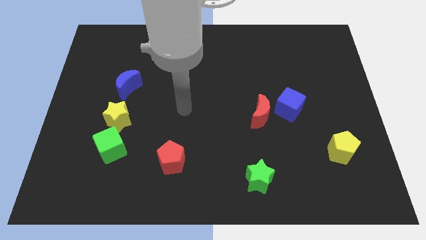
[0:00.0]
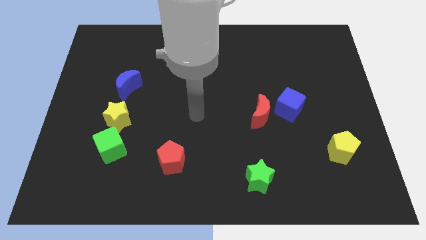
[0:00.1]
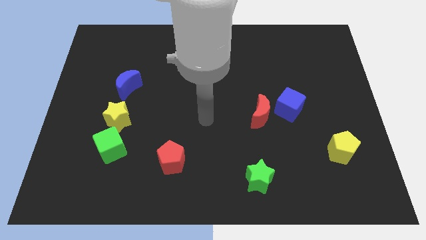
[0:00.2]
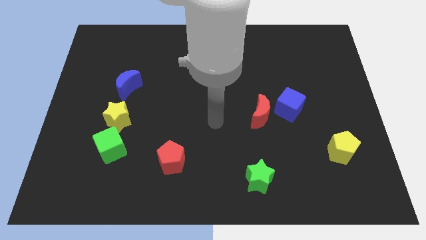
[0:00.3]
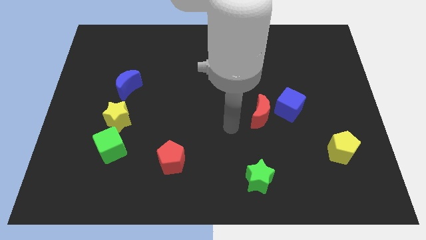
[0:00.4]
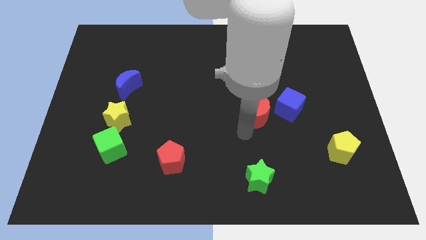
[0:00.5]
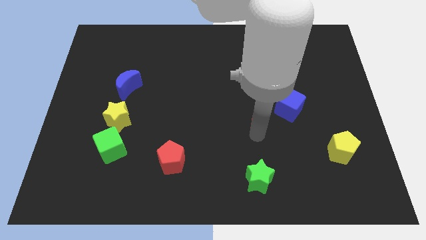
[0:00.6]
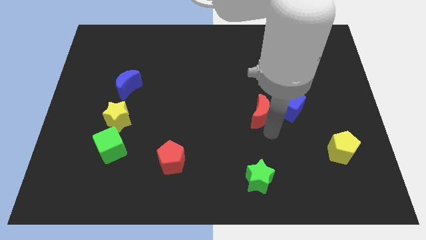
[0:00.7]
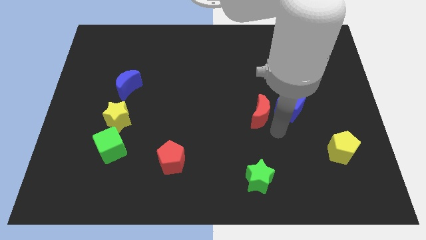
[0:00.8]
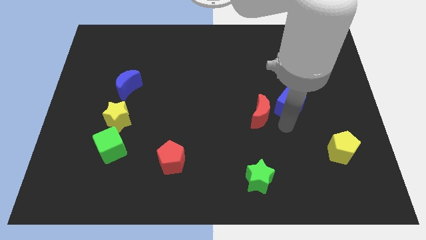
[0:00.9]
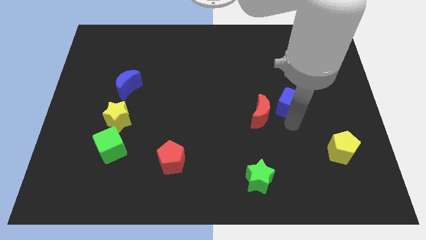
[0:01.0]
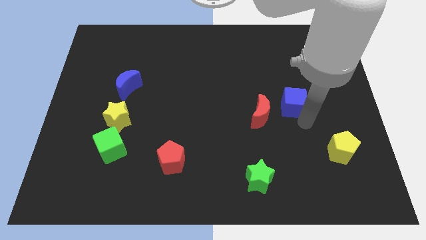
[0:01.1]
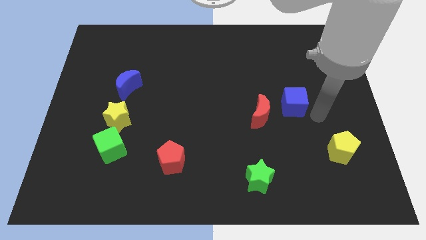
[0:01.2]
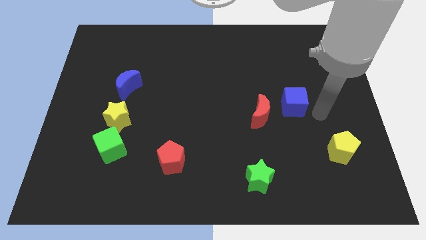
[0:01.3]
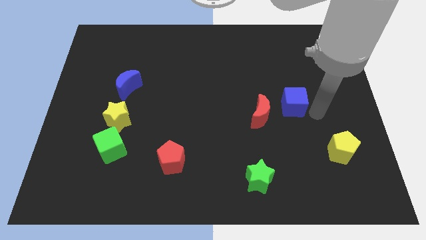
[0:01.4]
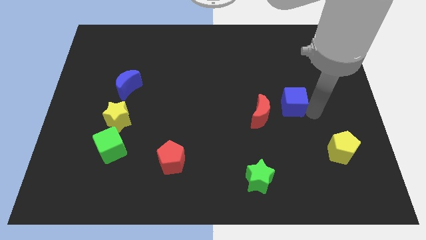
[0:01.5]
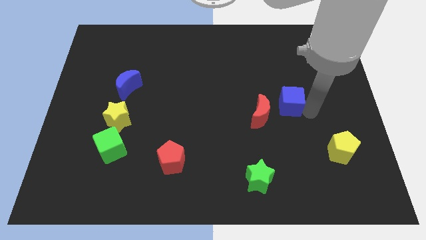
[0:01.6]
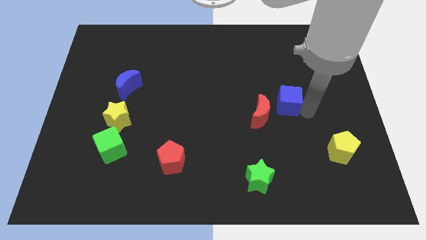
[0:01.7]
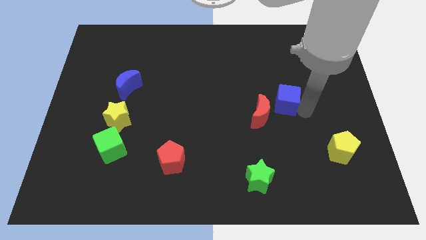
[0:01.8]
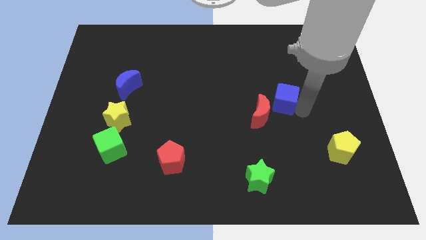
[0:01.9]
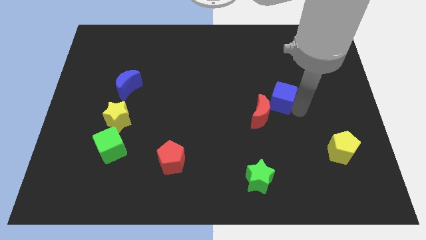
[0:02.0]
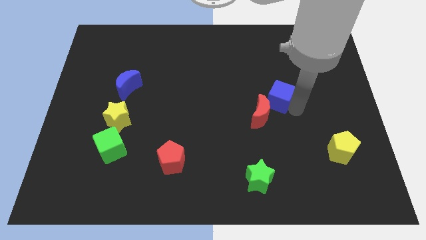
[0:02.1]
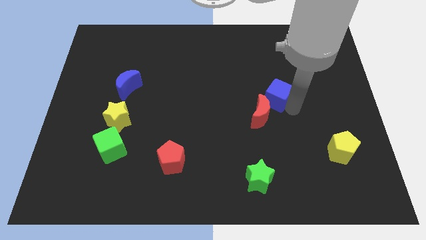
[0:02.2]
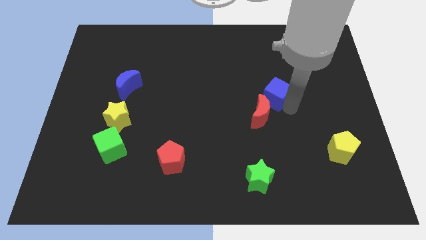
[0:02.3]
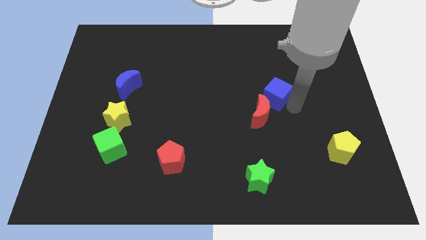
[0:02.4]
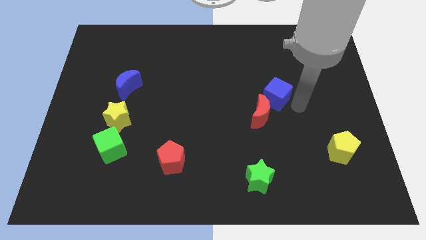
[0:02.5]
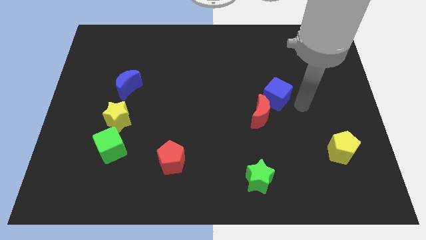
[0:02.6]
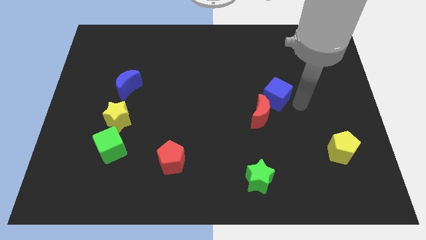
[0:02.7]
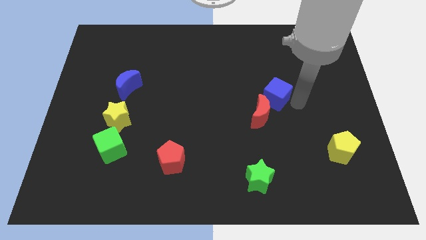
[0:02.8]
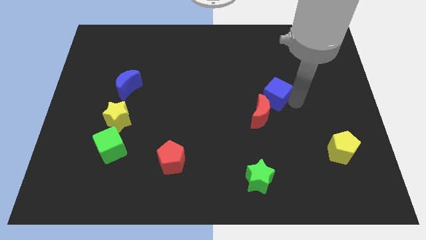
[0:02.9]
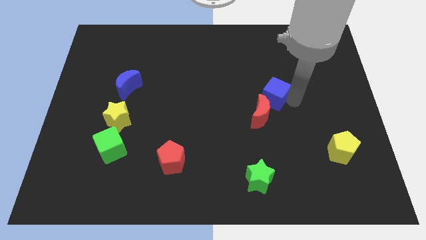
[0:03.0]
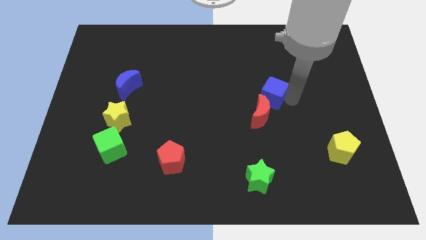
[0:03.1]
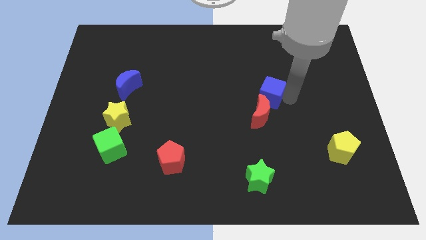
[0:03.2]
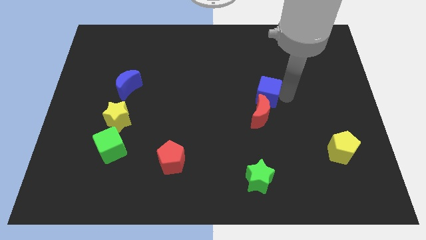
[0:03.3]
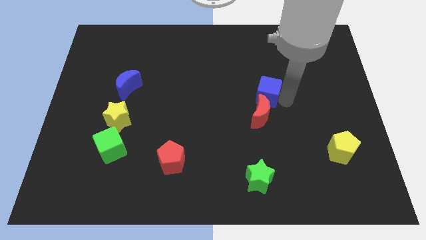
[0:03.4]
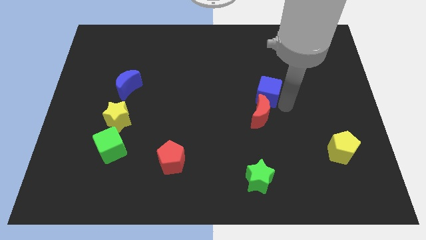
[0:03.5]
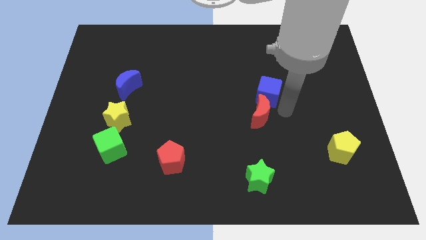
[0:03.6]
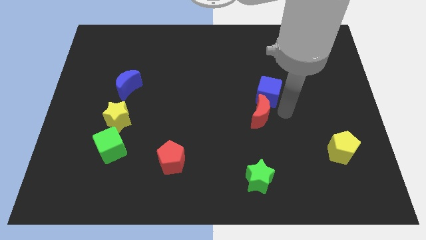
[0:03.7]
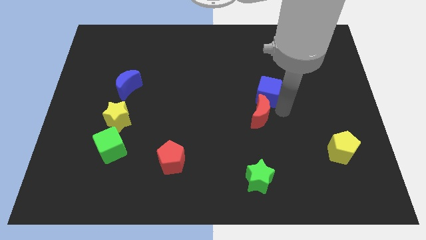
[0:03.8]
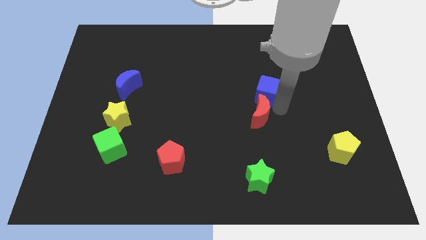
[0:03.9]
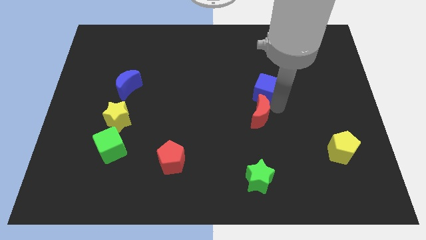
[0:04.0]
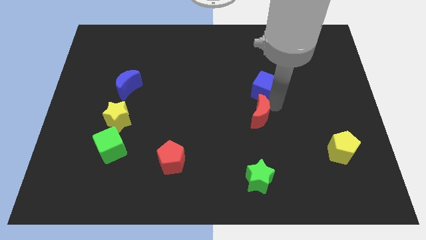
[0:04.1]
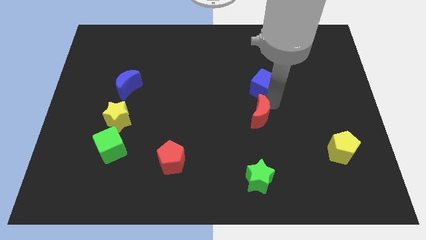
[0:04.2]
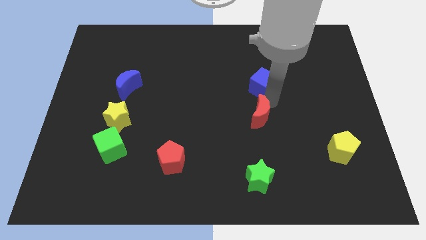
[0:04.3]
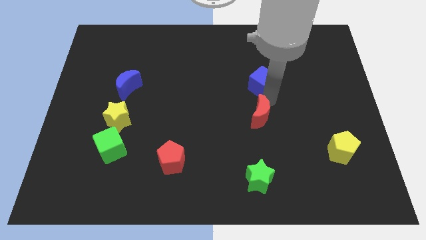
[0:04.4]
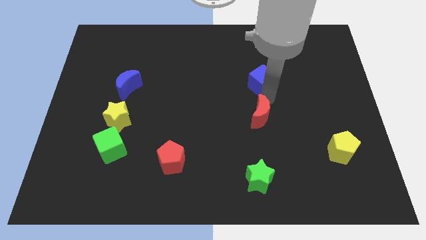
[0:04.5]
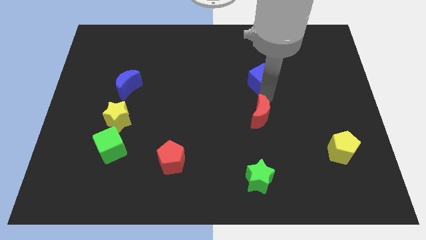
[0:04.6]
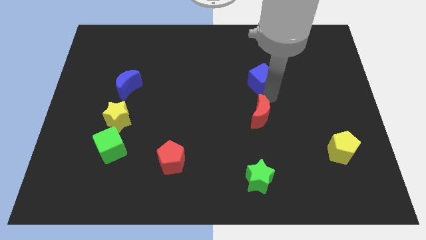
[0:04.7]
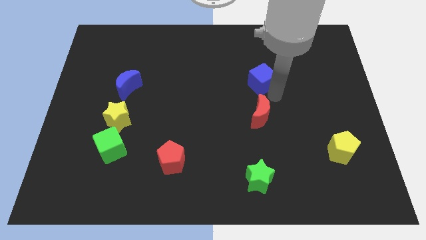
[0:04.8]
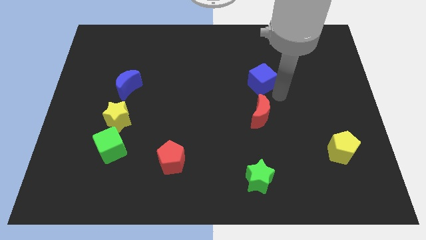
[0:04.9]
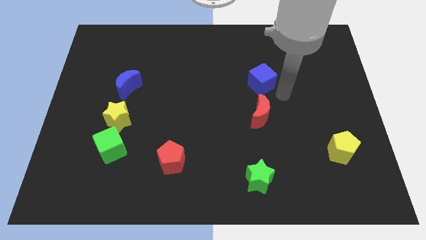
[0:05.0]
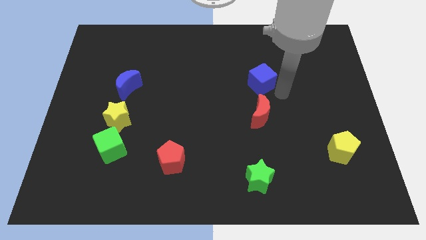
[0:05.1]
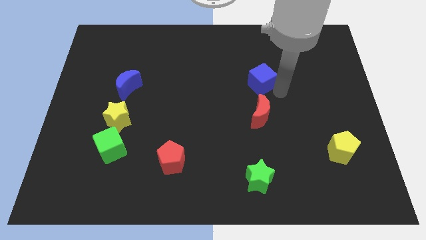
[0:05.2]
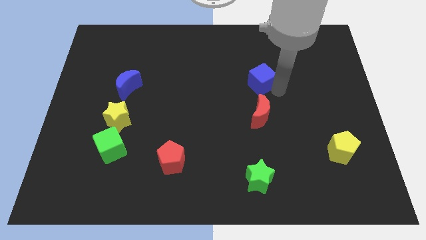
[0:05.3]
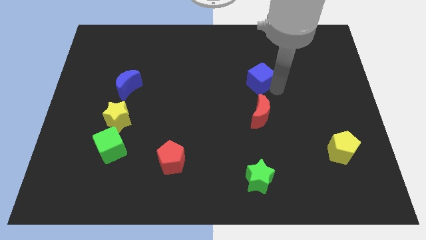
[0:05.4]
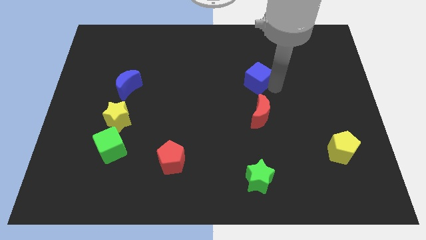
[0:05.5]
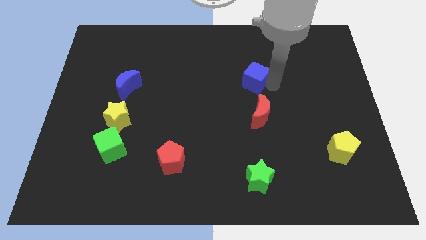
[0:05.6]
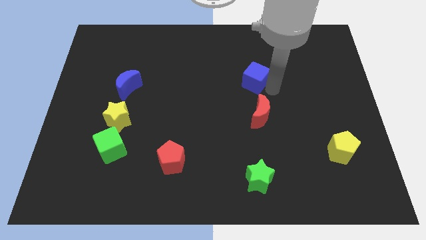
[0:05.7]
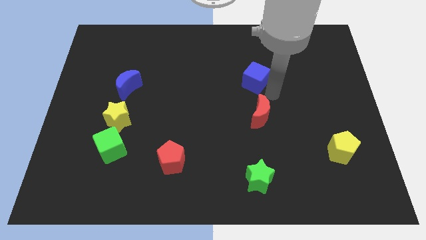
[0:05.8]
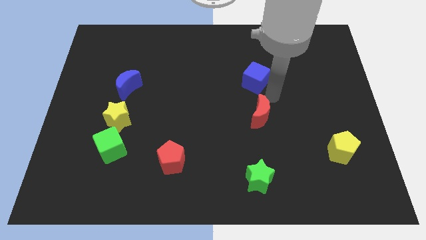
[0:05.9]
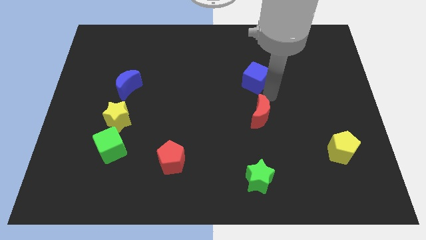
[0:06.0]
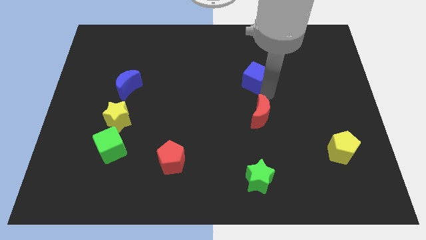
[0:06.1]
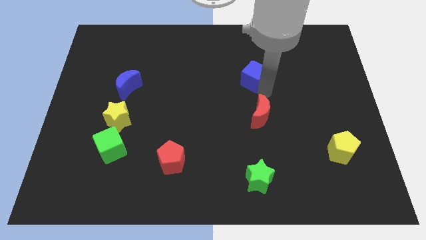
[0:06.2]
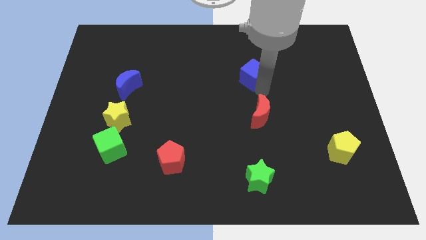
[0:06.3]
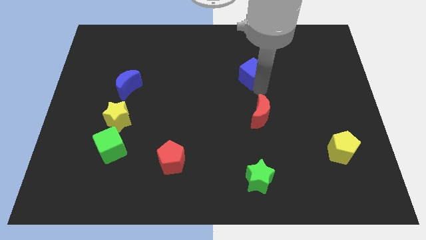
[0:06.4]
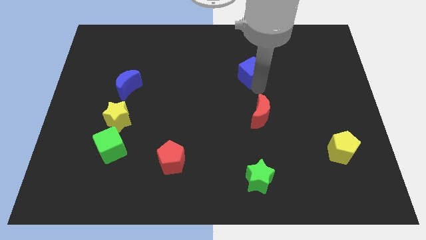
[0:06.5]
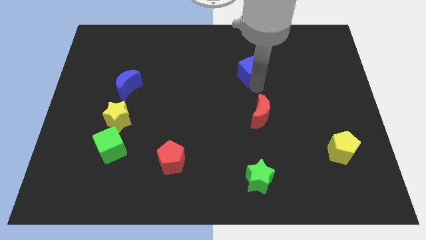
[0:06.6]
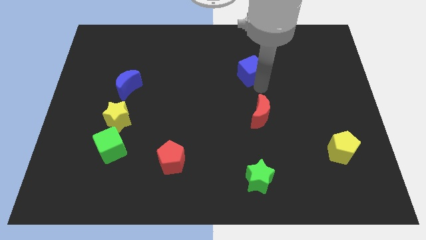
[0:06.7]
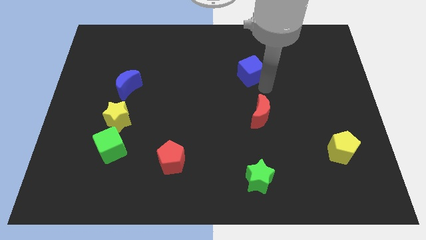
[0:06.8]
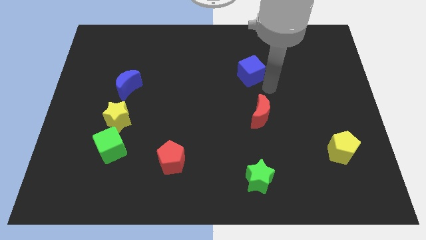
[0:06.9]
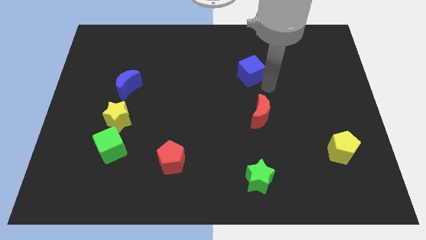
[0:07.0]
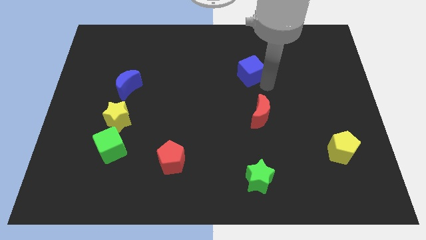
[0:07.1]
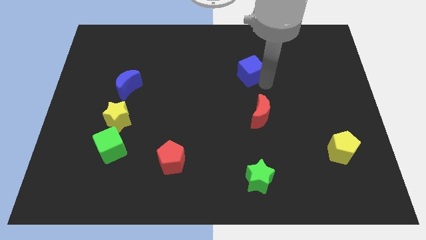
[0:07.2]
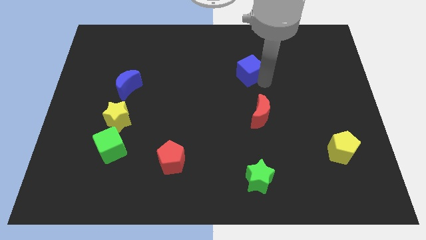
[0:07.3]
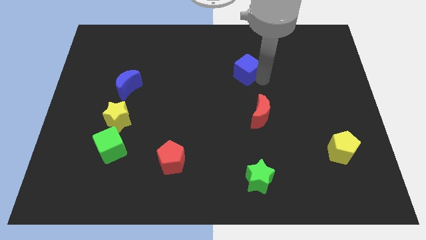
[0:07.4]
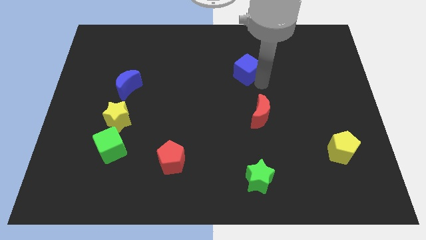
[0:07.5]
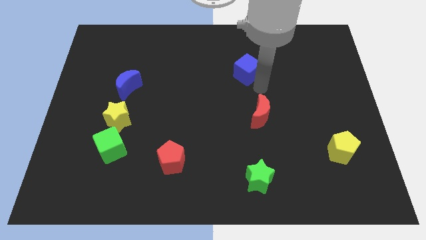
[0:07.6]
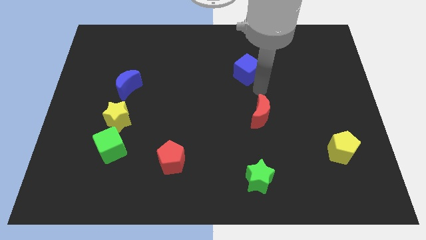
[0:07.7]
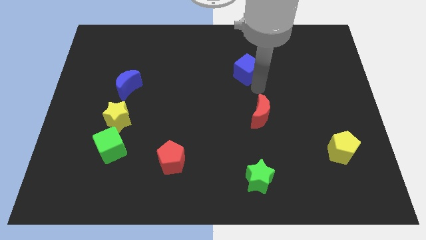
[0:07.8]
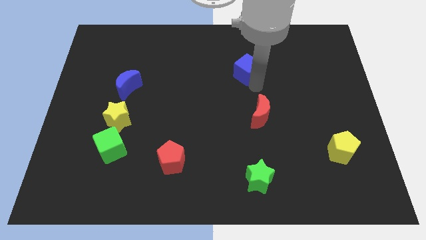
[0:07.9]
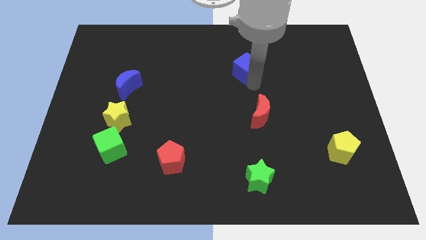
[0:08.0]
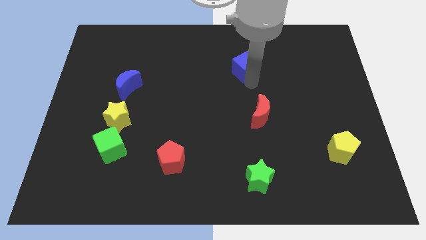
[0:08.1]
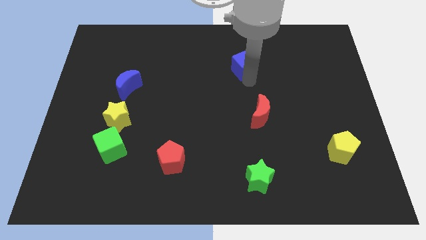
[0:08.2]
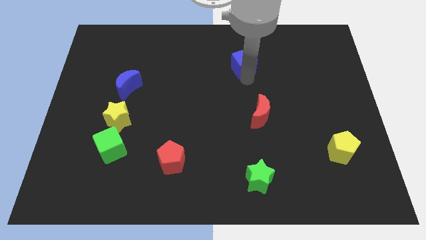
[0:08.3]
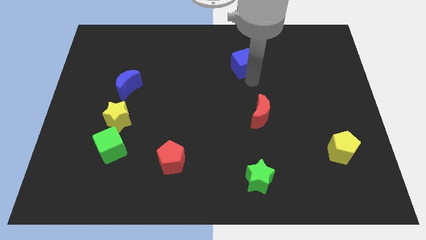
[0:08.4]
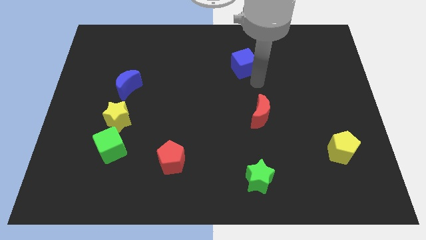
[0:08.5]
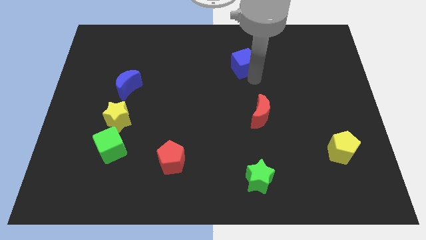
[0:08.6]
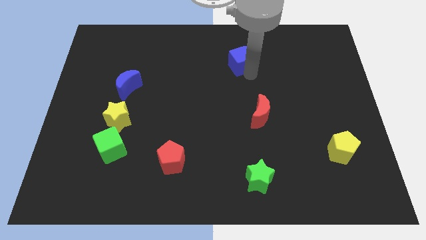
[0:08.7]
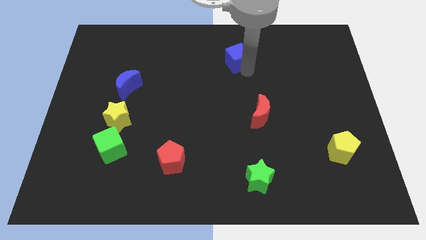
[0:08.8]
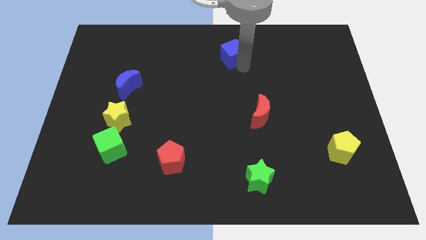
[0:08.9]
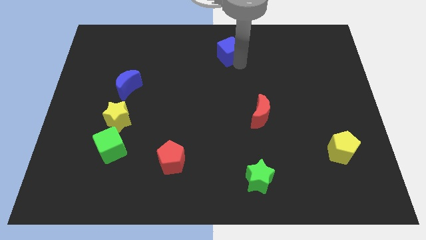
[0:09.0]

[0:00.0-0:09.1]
move the blue cube to the towards your base
